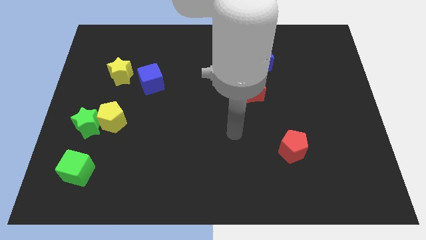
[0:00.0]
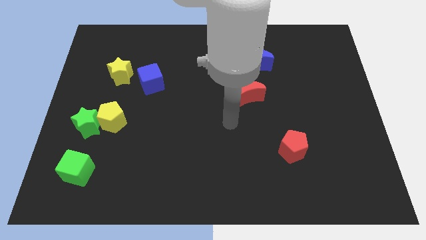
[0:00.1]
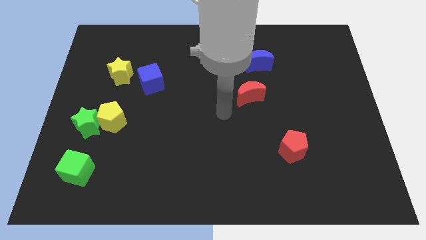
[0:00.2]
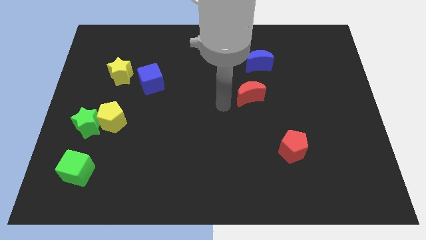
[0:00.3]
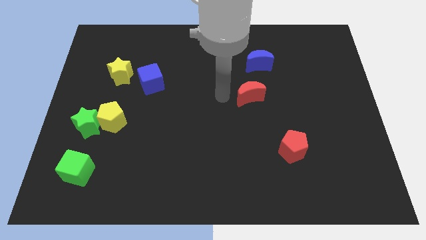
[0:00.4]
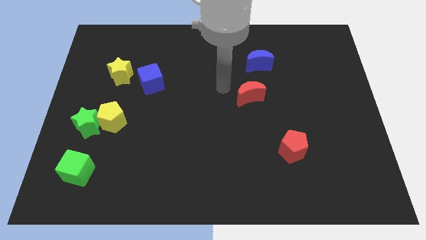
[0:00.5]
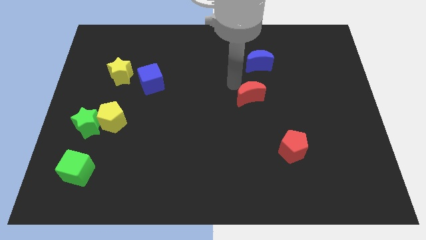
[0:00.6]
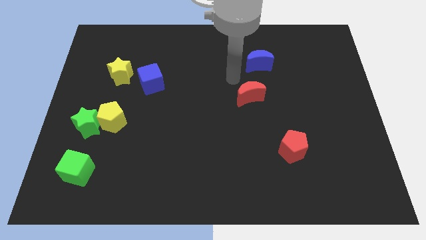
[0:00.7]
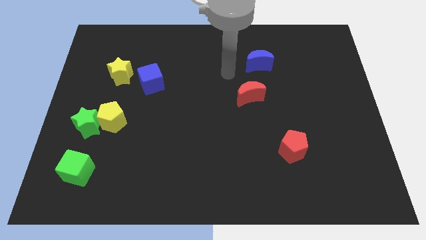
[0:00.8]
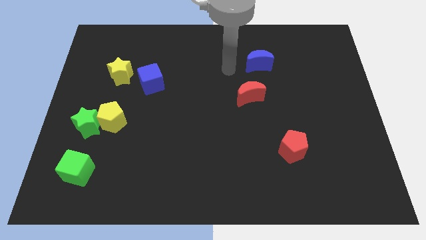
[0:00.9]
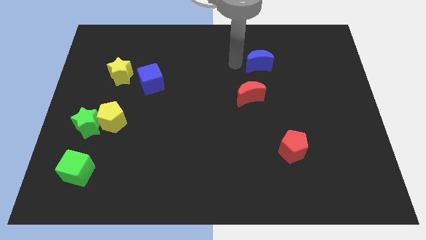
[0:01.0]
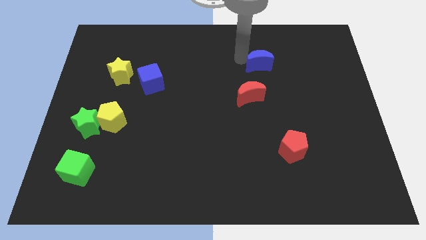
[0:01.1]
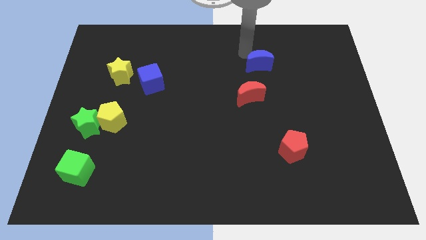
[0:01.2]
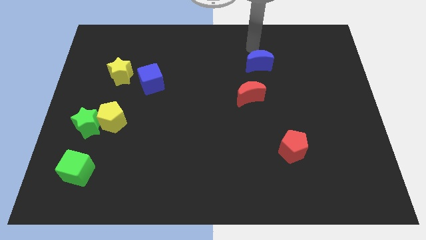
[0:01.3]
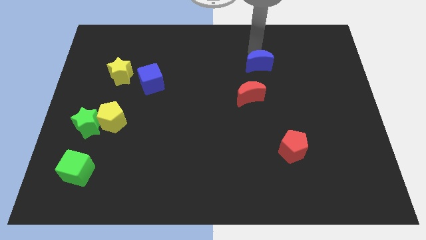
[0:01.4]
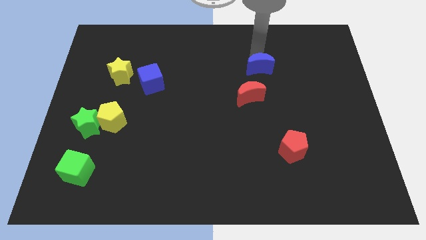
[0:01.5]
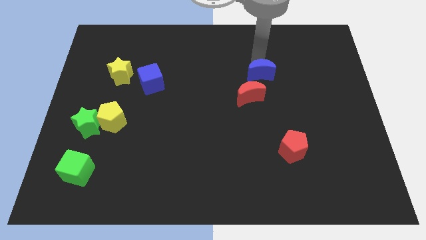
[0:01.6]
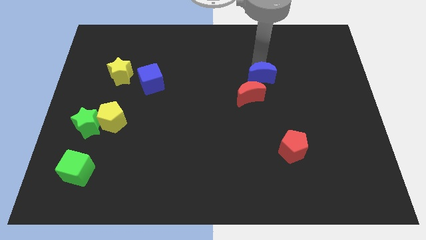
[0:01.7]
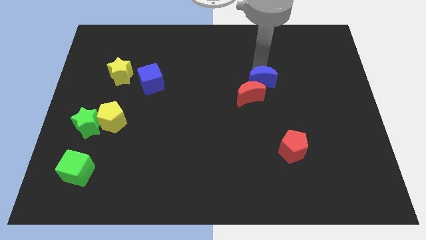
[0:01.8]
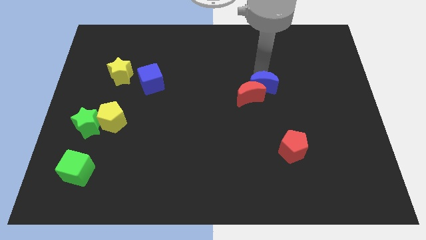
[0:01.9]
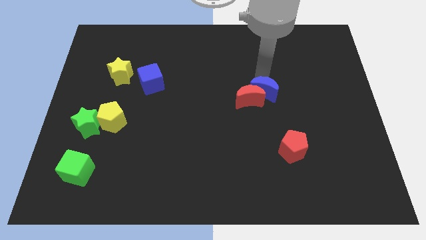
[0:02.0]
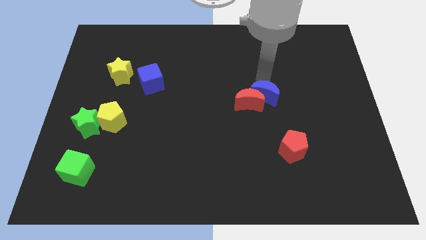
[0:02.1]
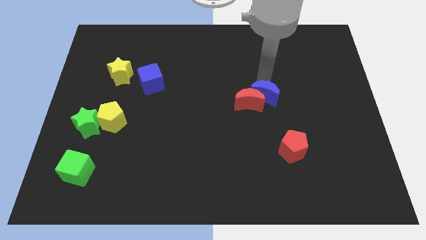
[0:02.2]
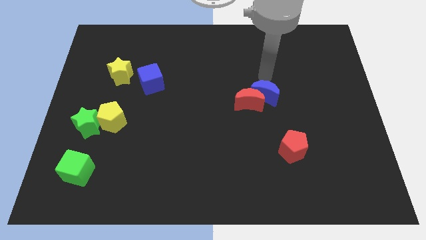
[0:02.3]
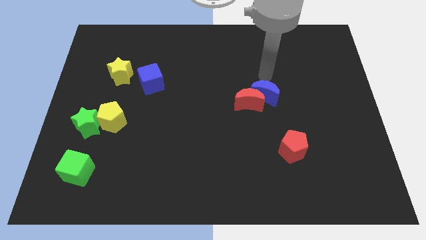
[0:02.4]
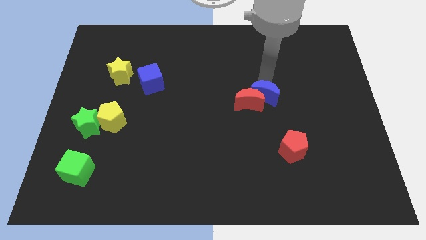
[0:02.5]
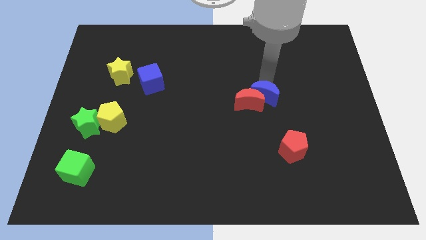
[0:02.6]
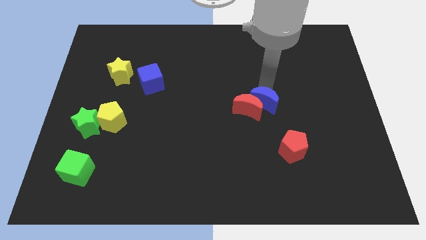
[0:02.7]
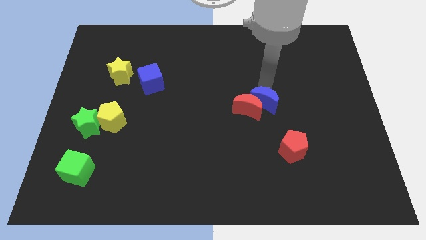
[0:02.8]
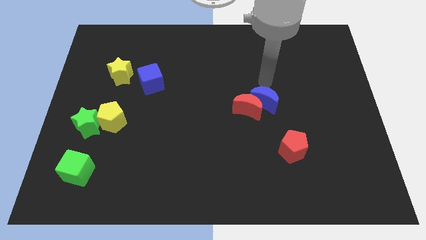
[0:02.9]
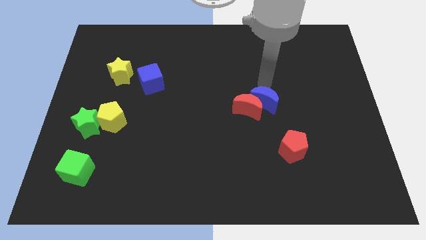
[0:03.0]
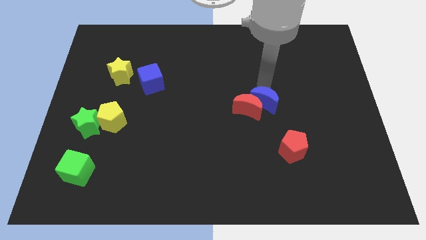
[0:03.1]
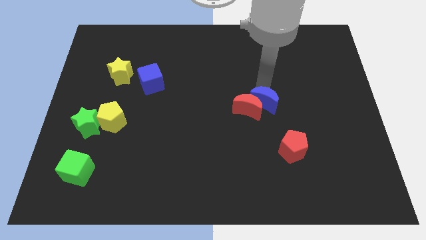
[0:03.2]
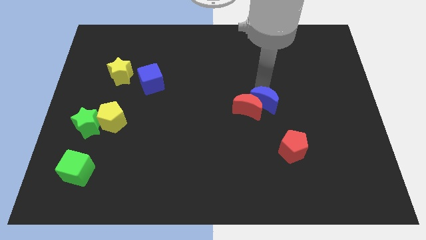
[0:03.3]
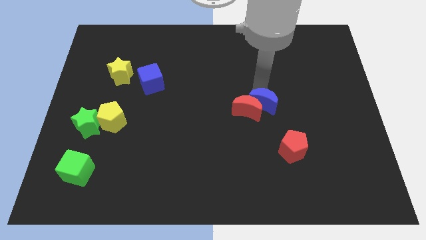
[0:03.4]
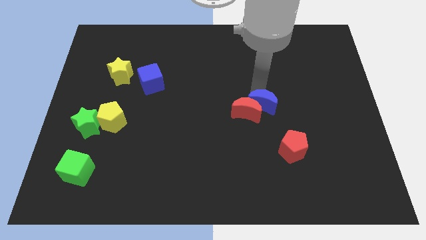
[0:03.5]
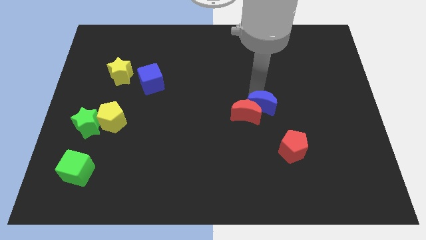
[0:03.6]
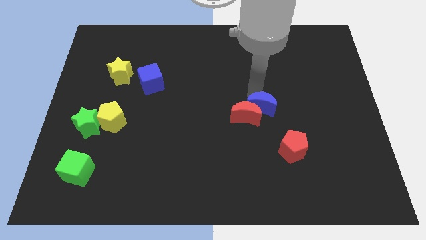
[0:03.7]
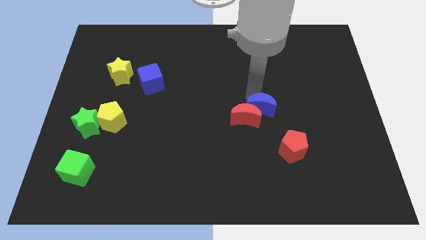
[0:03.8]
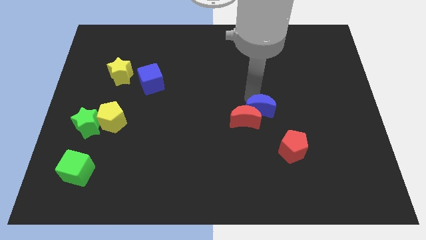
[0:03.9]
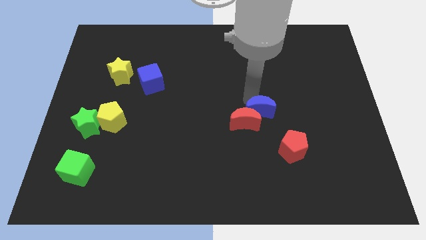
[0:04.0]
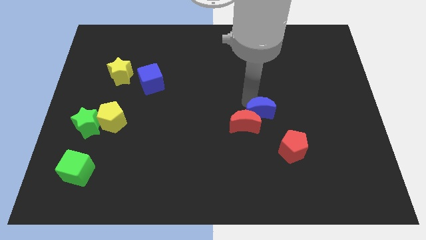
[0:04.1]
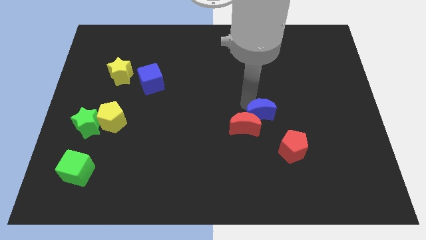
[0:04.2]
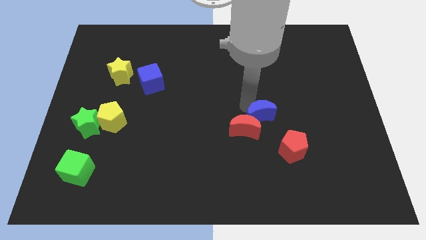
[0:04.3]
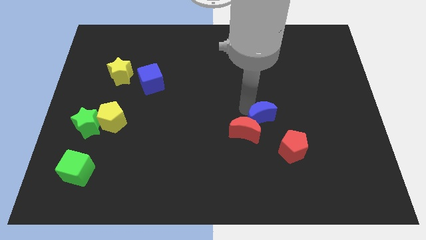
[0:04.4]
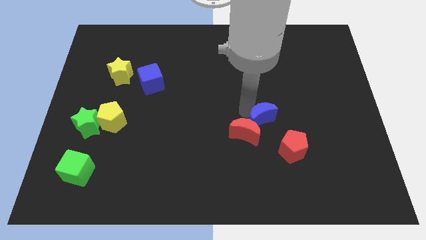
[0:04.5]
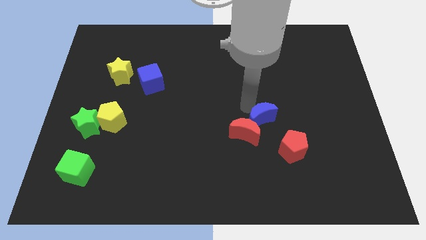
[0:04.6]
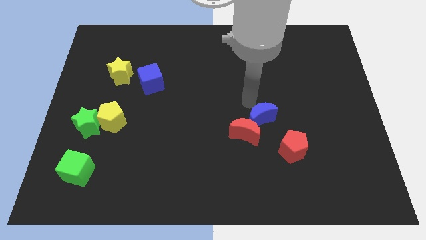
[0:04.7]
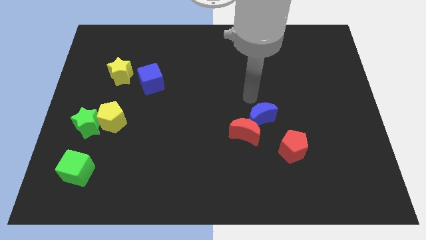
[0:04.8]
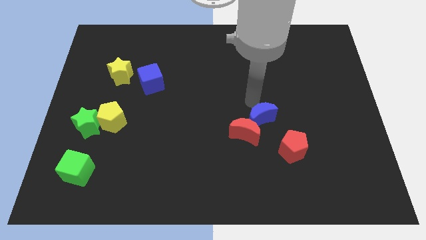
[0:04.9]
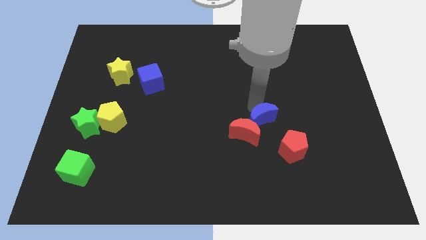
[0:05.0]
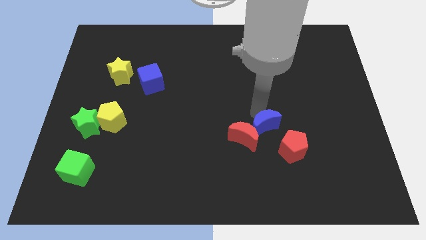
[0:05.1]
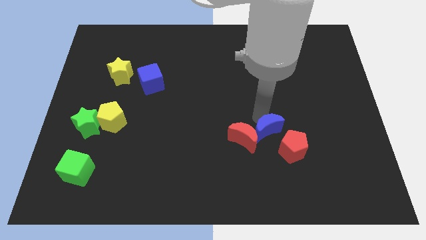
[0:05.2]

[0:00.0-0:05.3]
move the blue moon down

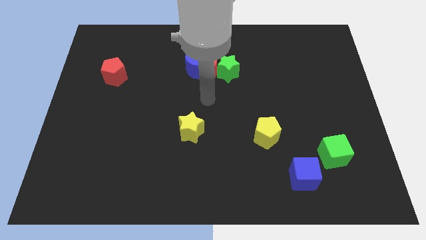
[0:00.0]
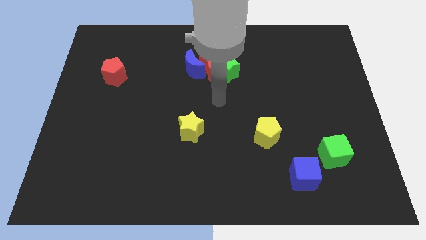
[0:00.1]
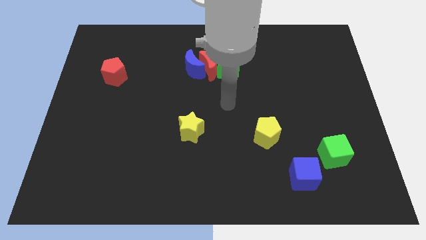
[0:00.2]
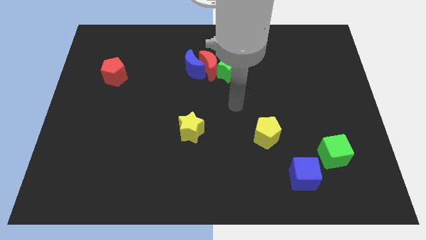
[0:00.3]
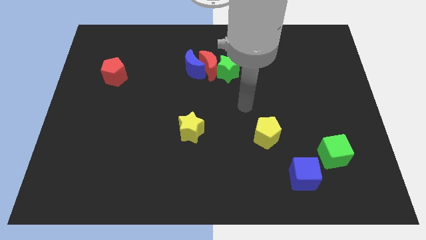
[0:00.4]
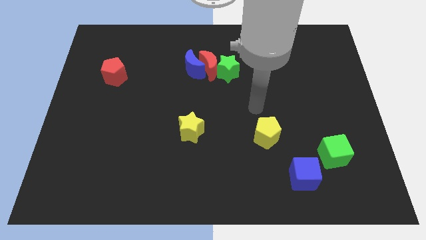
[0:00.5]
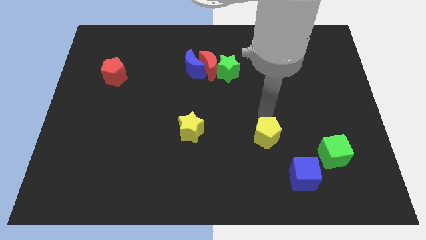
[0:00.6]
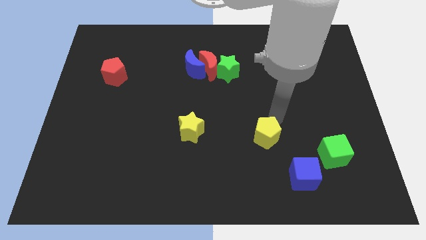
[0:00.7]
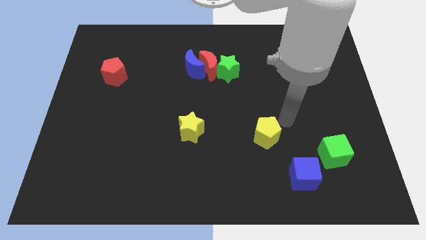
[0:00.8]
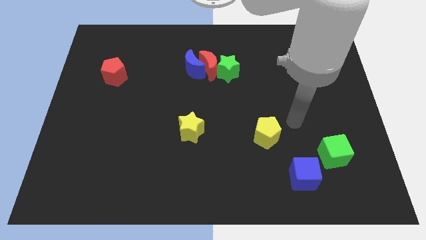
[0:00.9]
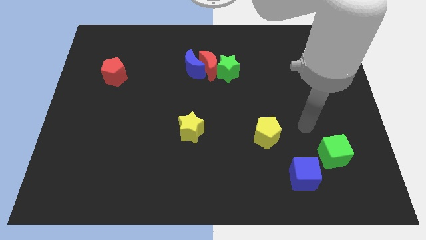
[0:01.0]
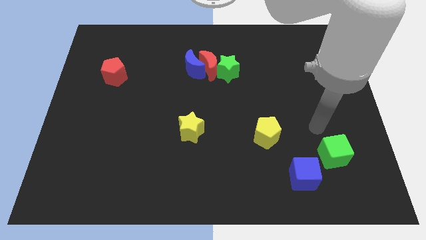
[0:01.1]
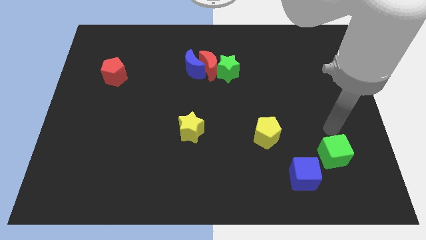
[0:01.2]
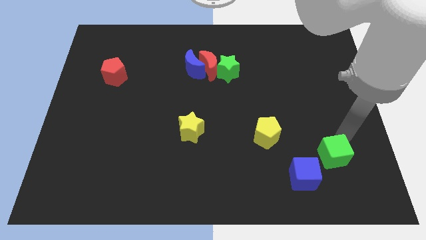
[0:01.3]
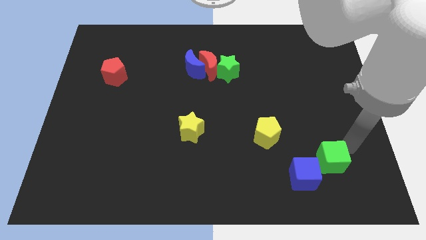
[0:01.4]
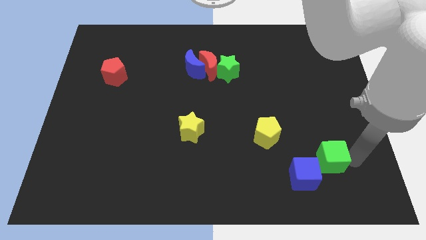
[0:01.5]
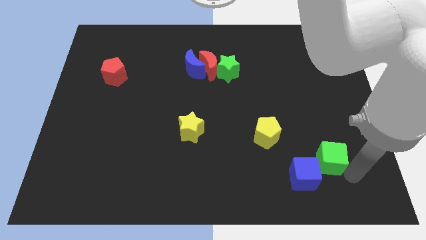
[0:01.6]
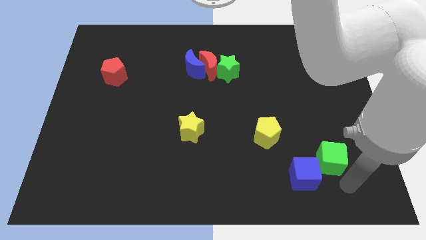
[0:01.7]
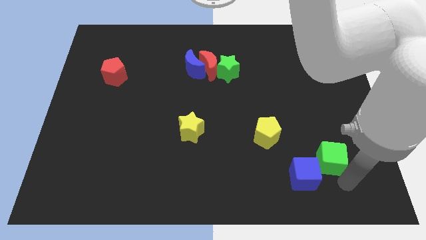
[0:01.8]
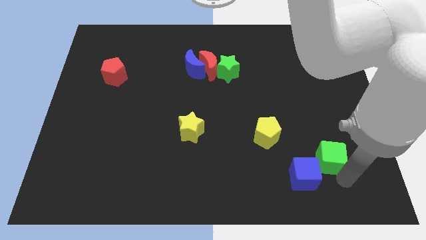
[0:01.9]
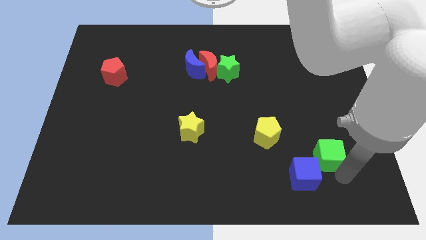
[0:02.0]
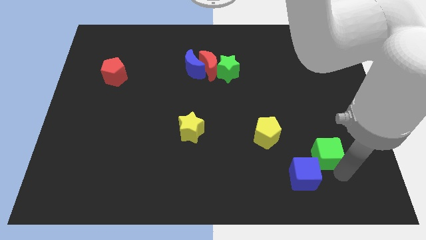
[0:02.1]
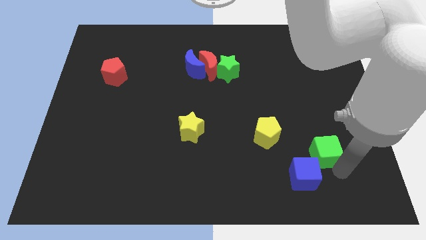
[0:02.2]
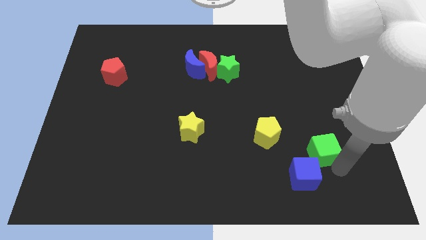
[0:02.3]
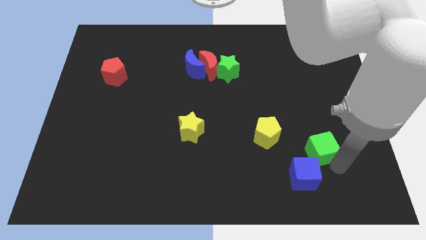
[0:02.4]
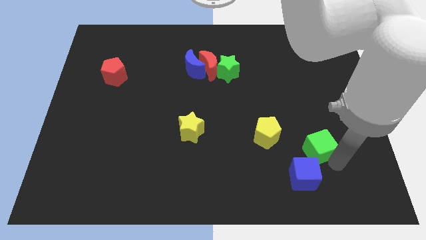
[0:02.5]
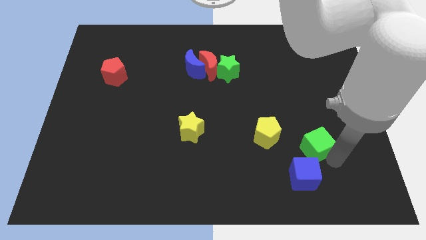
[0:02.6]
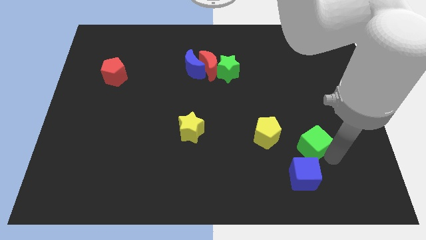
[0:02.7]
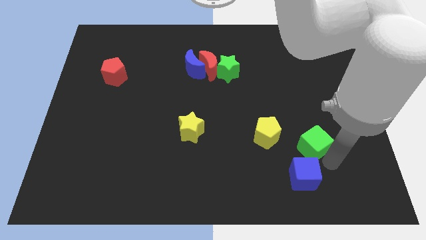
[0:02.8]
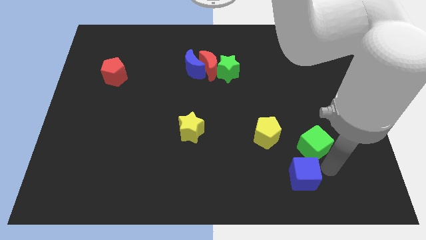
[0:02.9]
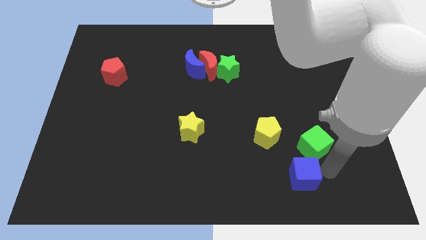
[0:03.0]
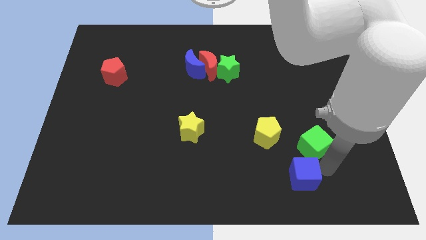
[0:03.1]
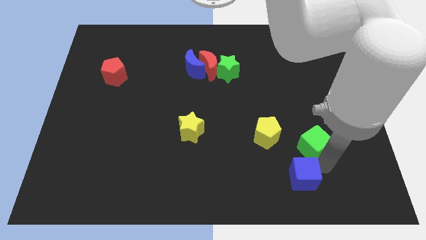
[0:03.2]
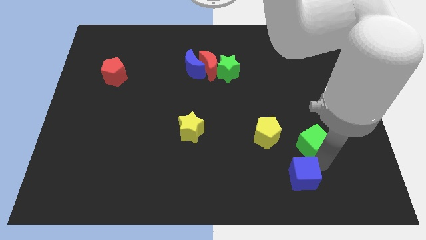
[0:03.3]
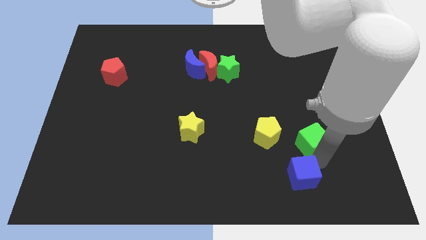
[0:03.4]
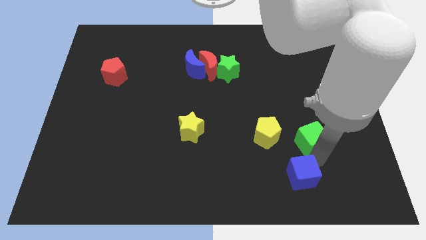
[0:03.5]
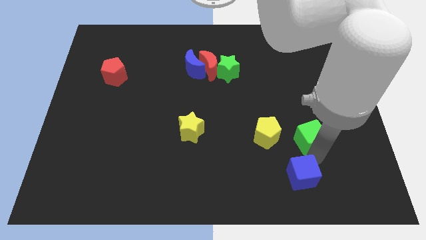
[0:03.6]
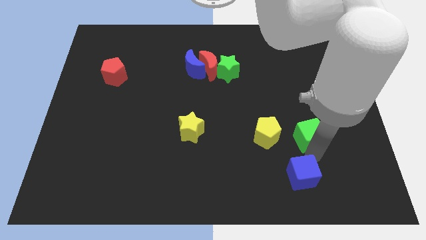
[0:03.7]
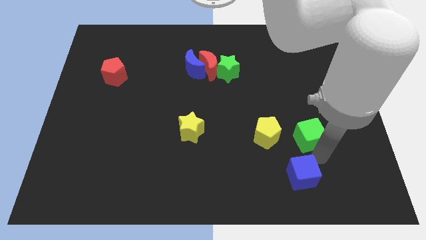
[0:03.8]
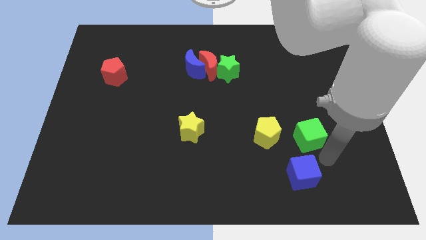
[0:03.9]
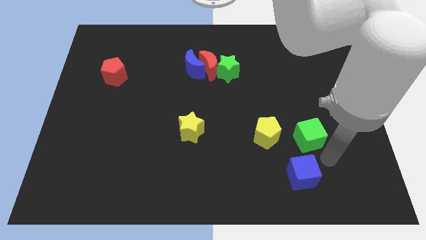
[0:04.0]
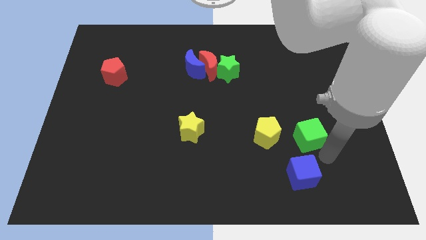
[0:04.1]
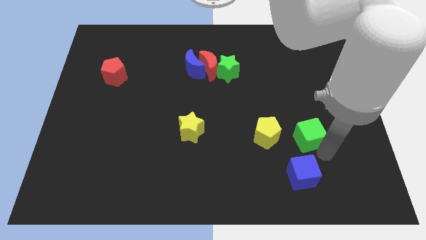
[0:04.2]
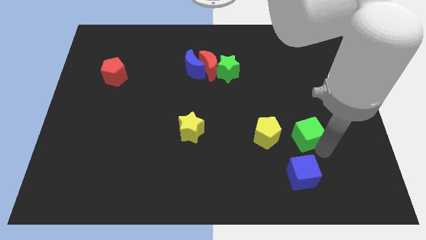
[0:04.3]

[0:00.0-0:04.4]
push the green cube upwards and to the left diagonally a little
